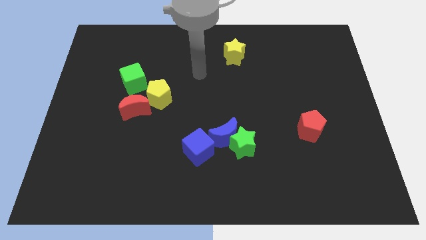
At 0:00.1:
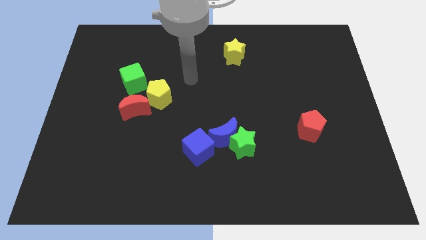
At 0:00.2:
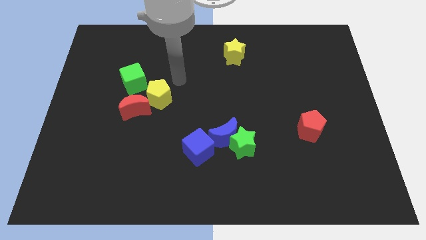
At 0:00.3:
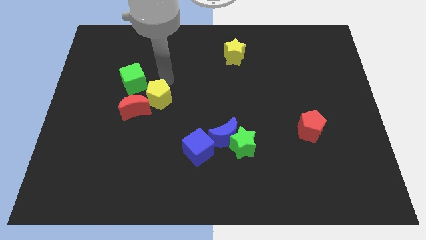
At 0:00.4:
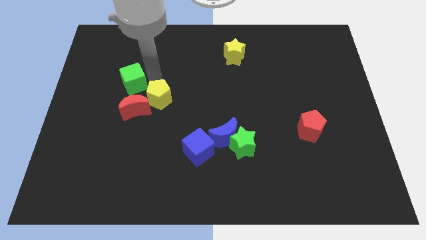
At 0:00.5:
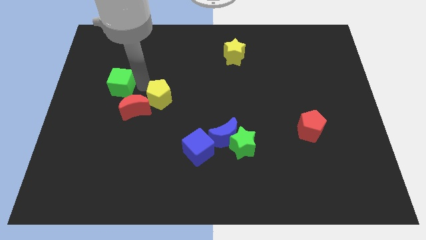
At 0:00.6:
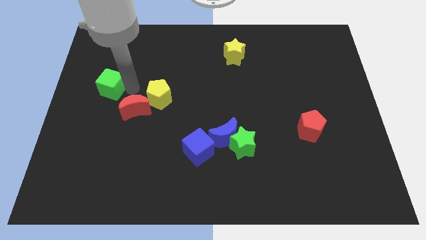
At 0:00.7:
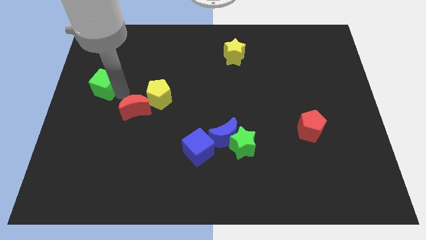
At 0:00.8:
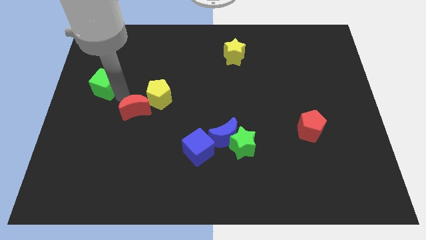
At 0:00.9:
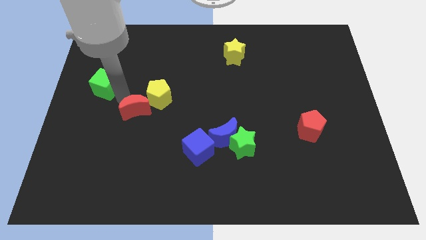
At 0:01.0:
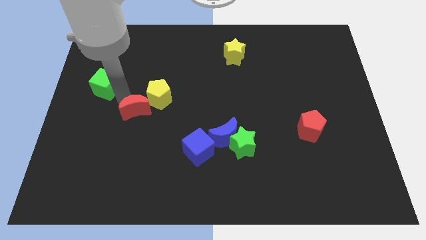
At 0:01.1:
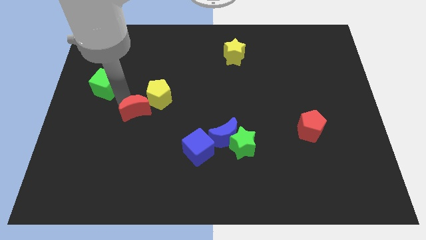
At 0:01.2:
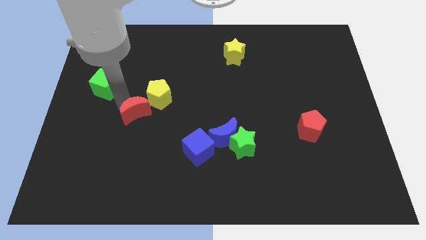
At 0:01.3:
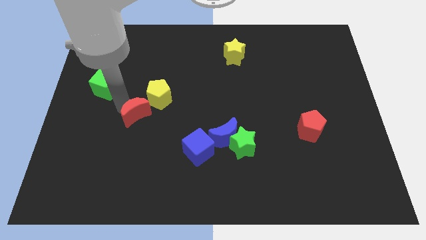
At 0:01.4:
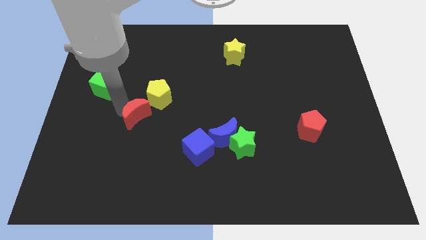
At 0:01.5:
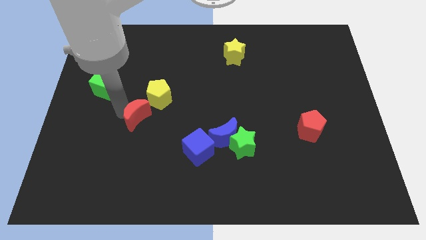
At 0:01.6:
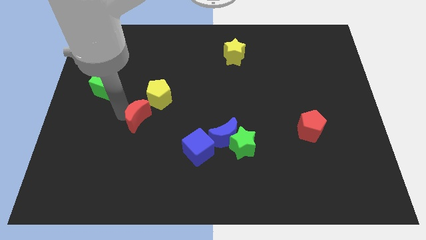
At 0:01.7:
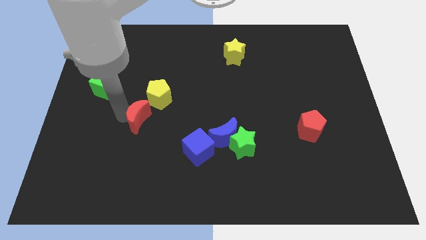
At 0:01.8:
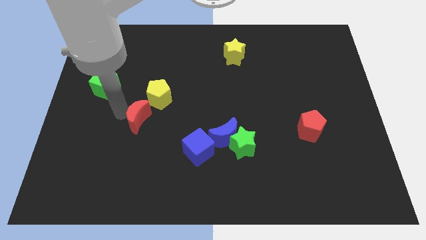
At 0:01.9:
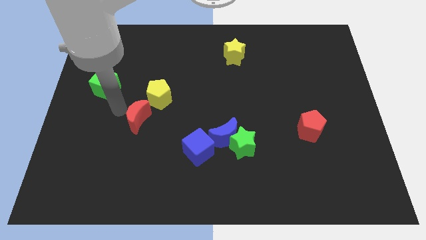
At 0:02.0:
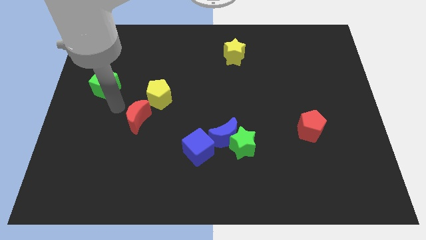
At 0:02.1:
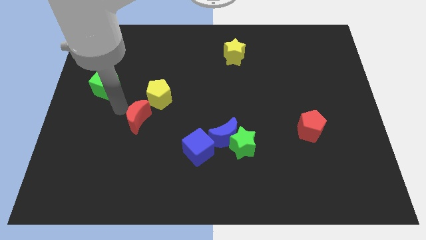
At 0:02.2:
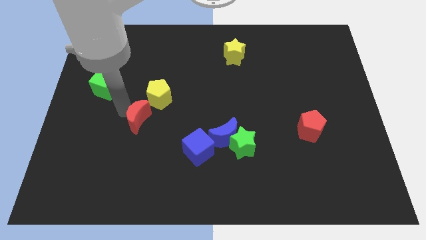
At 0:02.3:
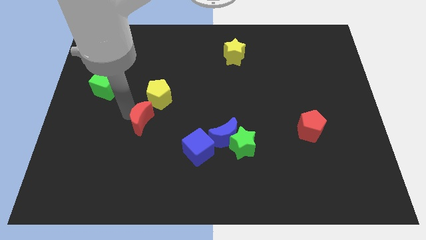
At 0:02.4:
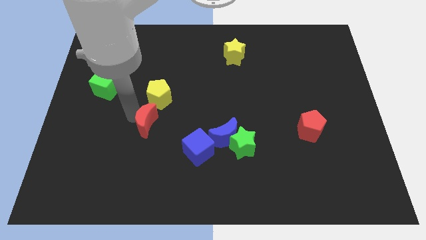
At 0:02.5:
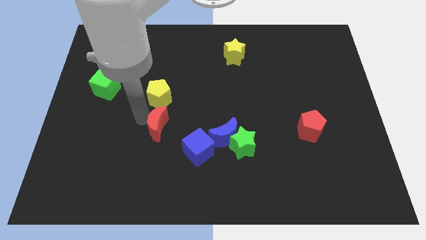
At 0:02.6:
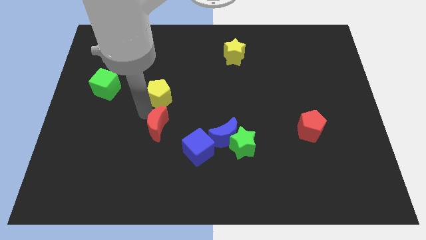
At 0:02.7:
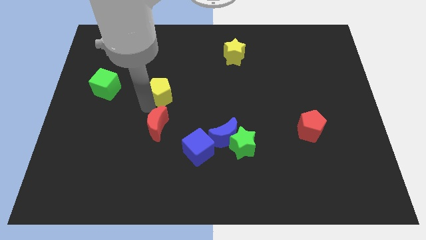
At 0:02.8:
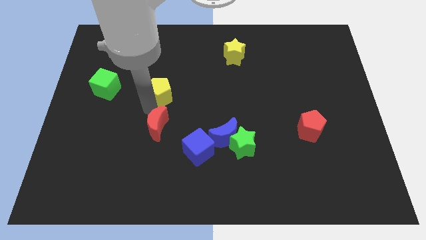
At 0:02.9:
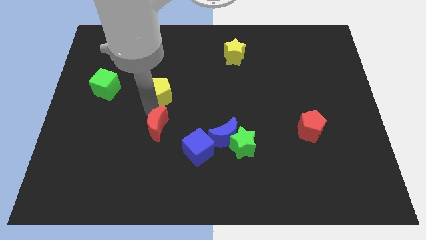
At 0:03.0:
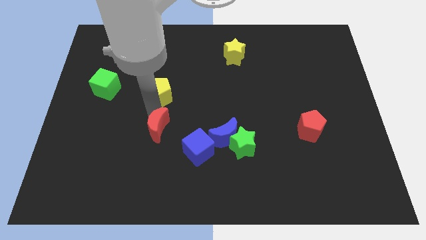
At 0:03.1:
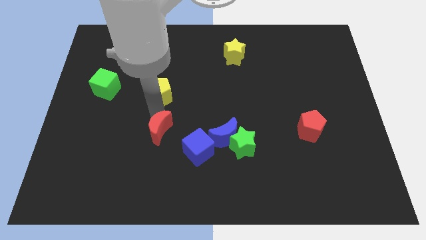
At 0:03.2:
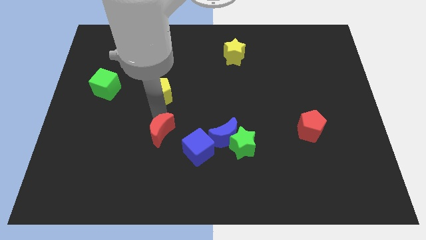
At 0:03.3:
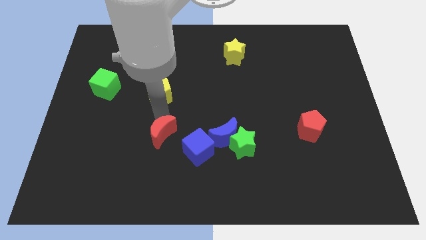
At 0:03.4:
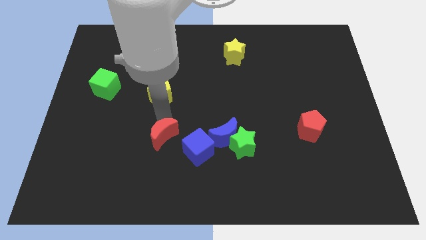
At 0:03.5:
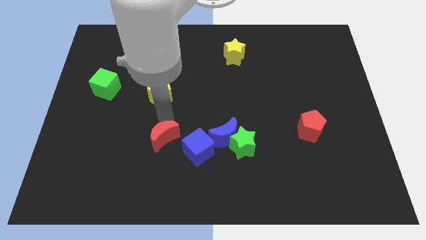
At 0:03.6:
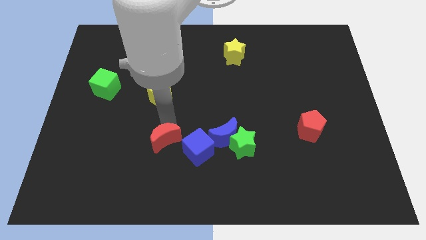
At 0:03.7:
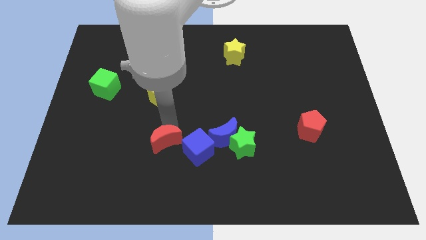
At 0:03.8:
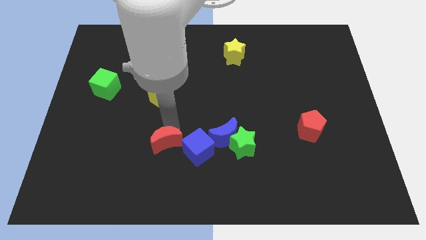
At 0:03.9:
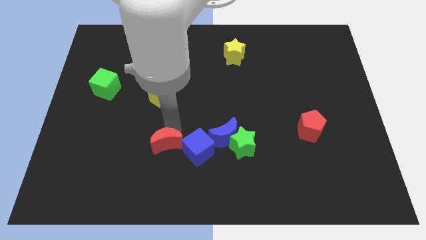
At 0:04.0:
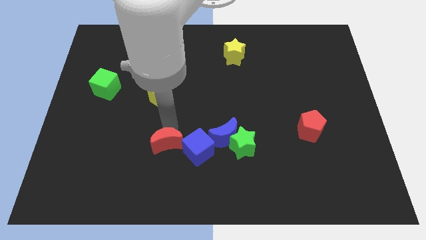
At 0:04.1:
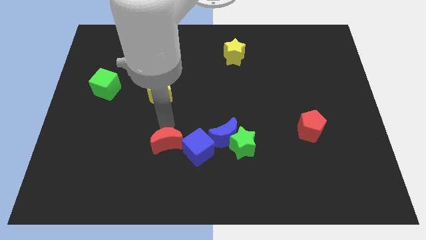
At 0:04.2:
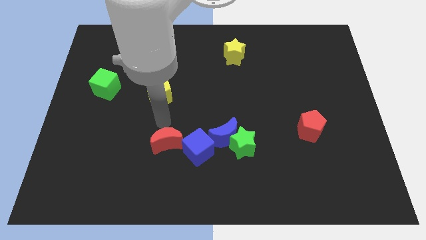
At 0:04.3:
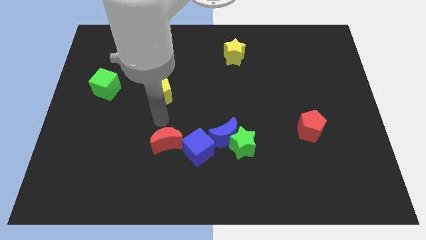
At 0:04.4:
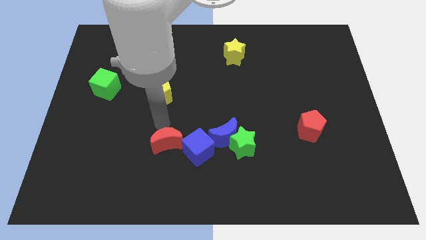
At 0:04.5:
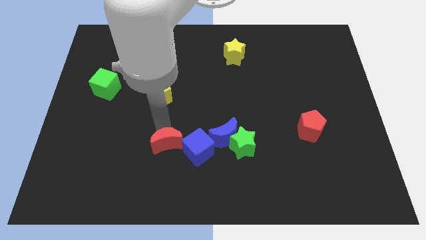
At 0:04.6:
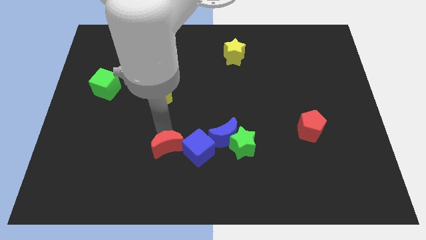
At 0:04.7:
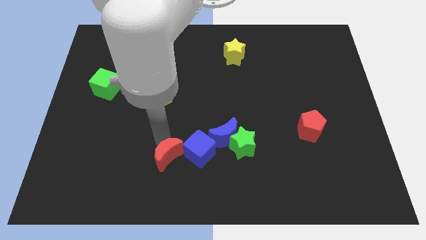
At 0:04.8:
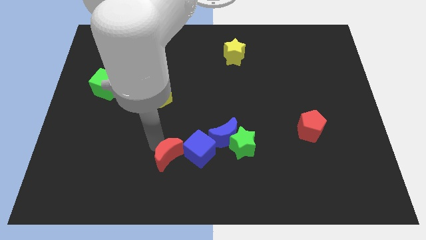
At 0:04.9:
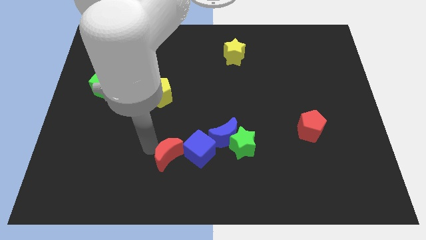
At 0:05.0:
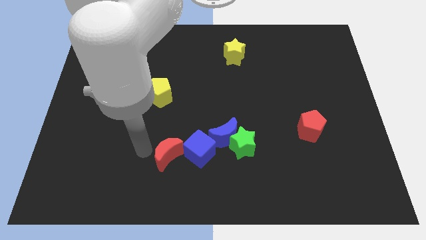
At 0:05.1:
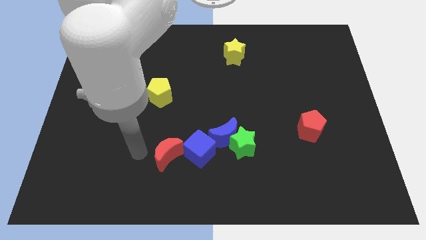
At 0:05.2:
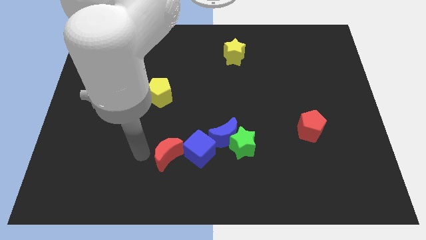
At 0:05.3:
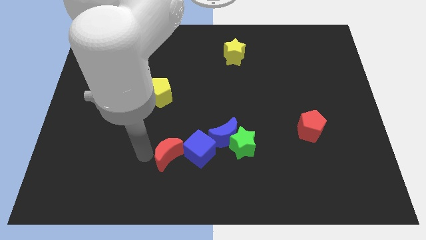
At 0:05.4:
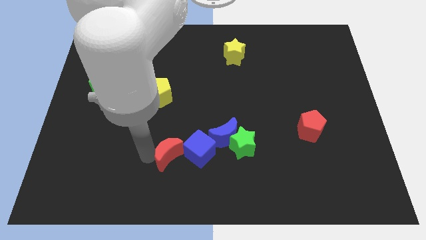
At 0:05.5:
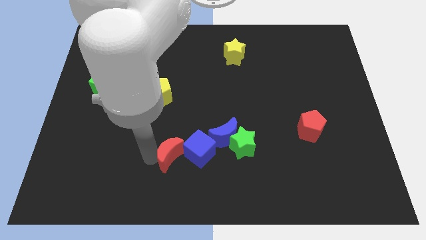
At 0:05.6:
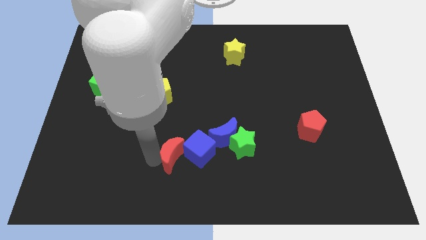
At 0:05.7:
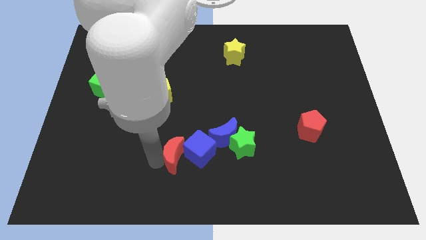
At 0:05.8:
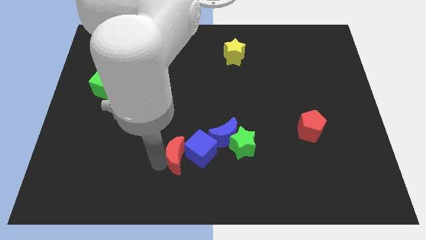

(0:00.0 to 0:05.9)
slide the red moon to the bottom left side of the blue moon
